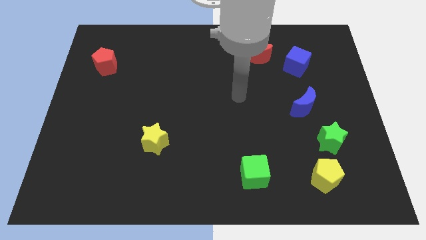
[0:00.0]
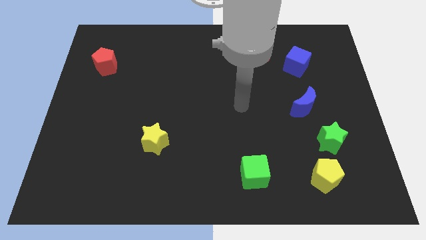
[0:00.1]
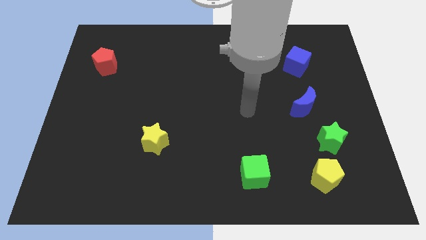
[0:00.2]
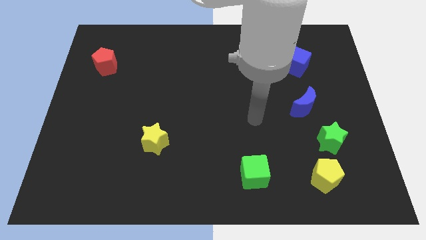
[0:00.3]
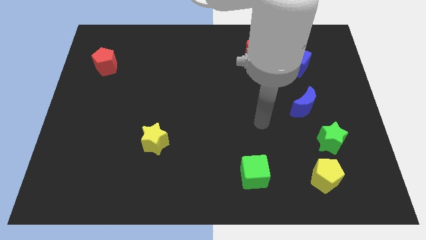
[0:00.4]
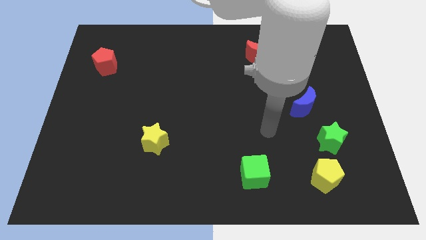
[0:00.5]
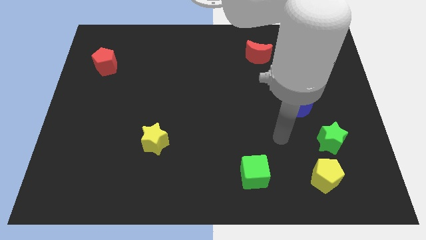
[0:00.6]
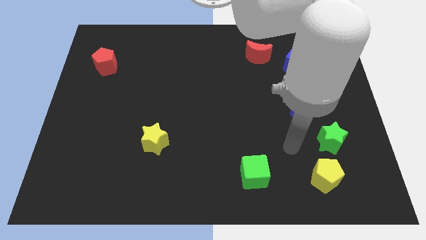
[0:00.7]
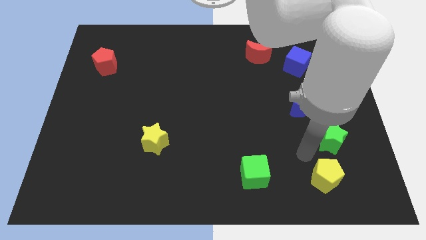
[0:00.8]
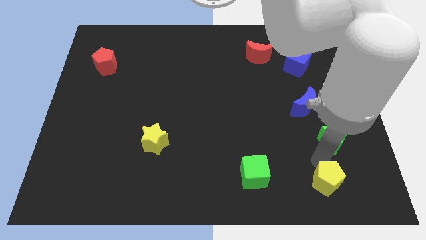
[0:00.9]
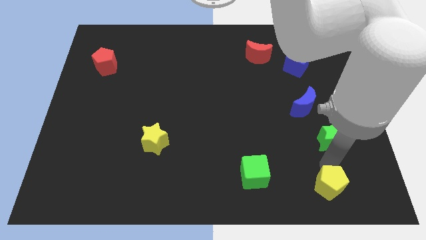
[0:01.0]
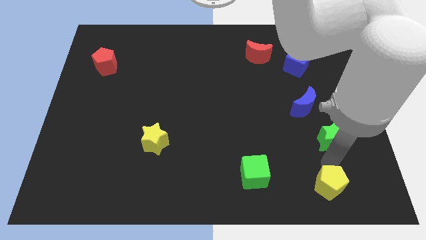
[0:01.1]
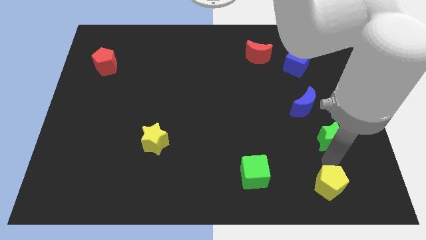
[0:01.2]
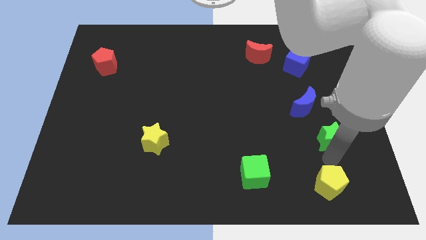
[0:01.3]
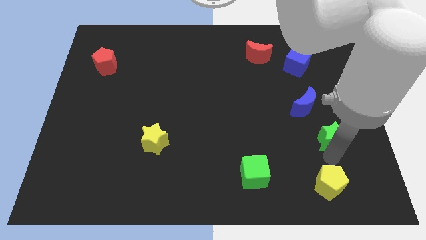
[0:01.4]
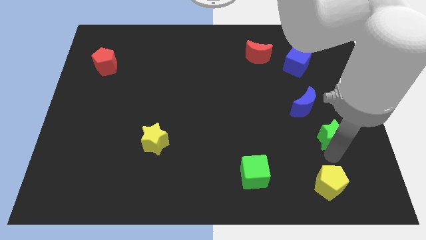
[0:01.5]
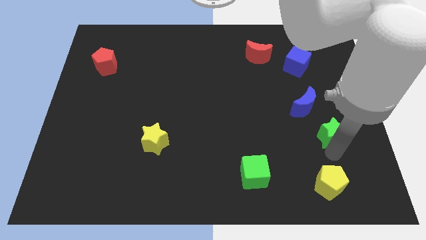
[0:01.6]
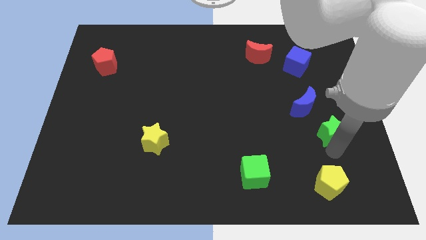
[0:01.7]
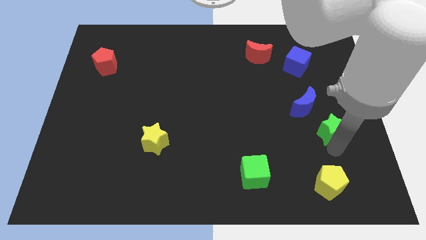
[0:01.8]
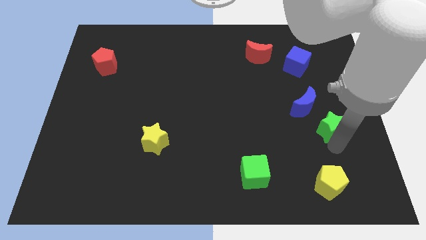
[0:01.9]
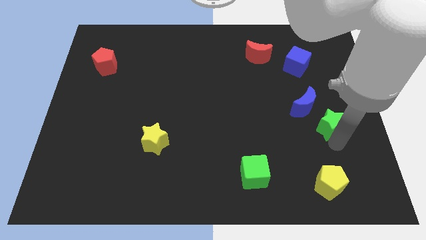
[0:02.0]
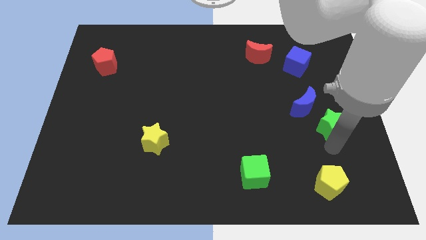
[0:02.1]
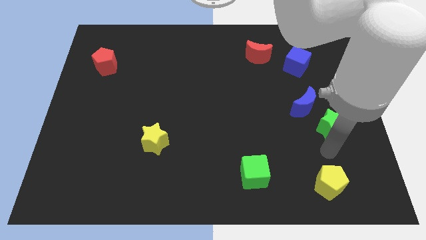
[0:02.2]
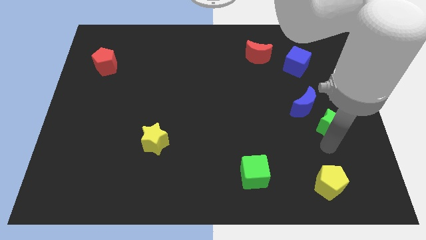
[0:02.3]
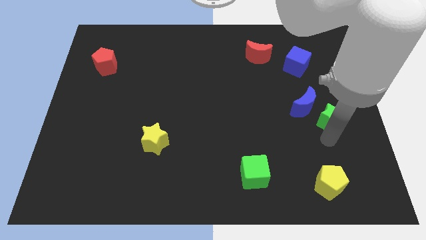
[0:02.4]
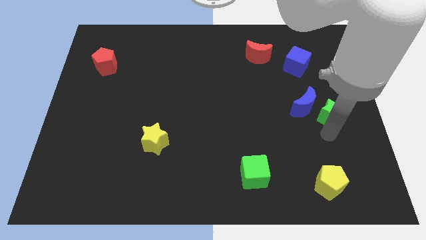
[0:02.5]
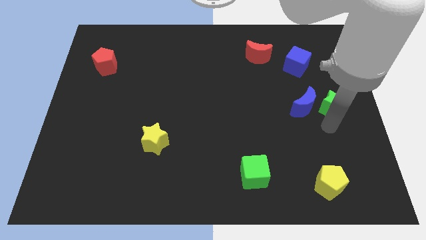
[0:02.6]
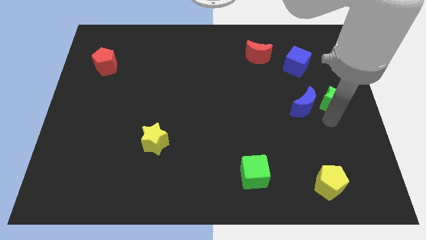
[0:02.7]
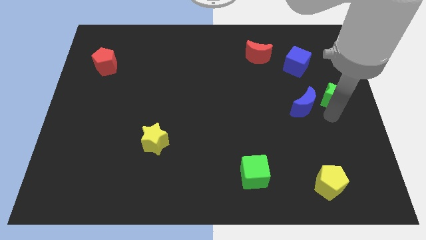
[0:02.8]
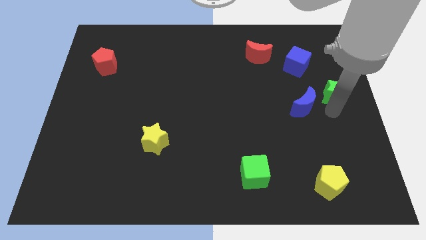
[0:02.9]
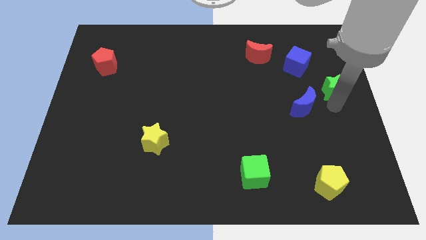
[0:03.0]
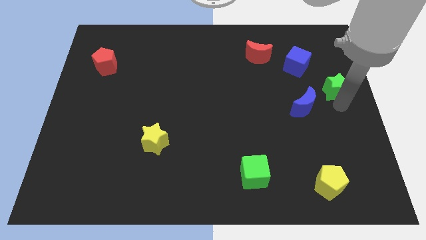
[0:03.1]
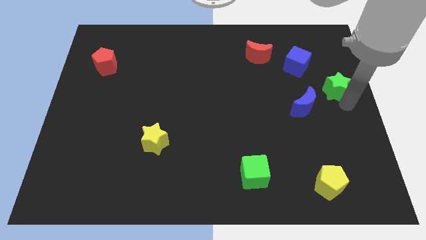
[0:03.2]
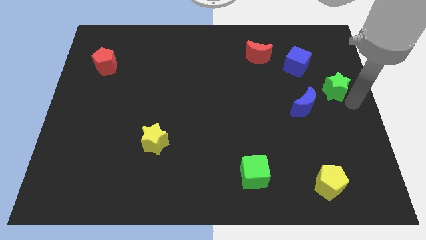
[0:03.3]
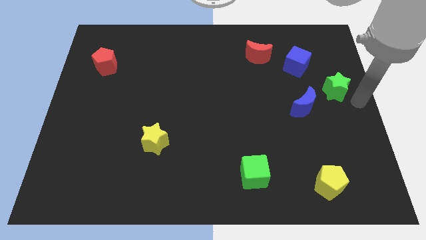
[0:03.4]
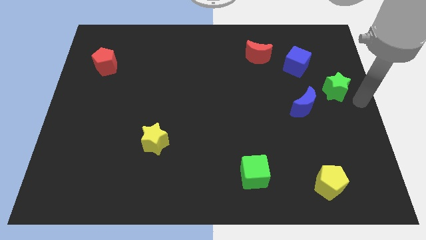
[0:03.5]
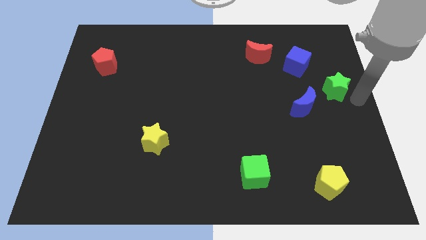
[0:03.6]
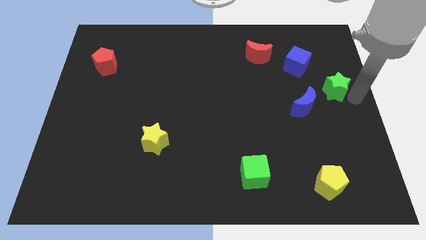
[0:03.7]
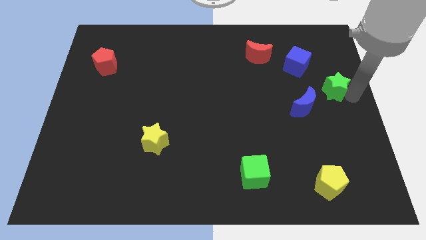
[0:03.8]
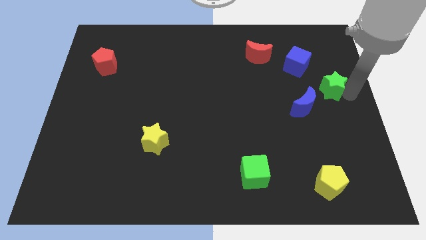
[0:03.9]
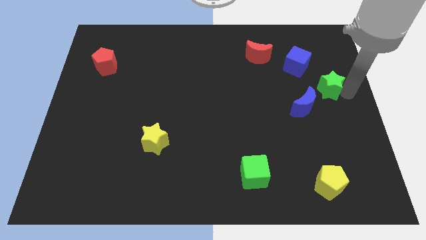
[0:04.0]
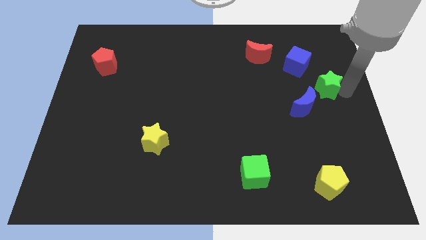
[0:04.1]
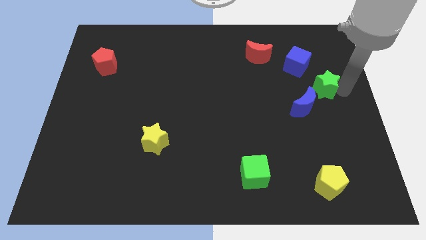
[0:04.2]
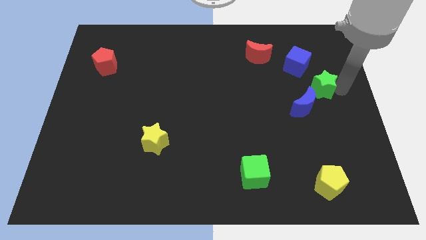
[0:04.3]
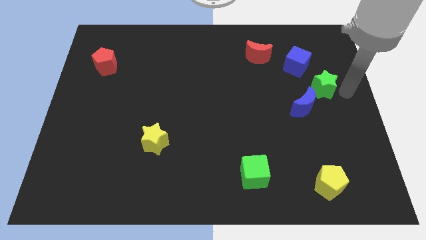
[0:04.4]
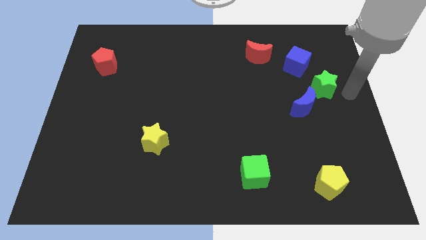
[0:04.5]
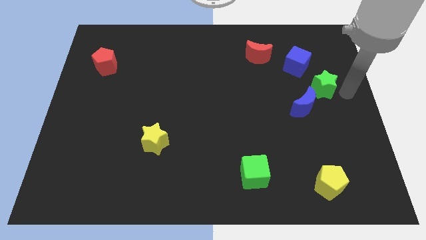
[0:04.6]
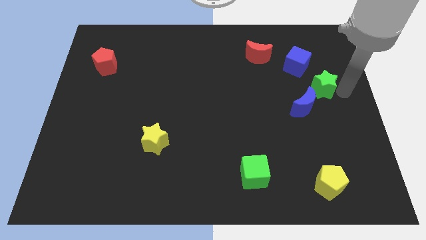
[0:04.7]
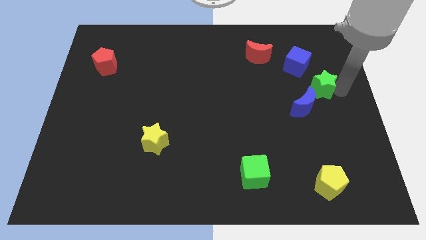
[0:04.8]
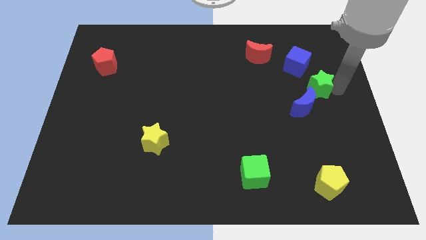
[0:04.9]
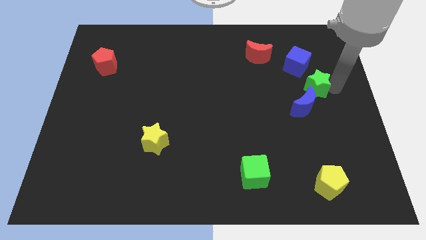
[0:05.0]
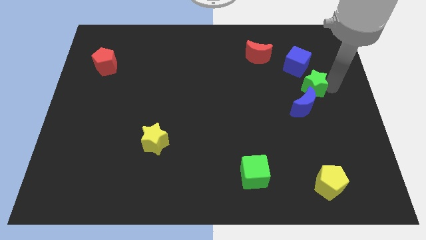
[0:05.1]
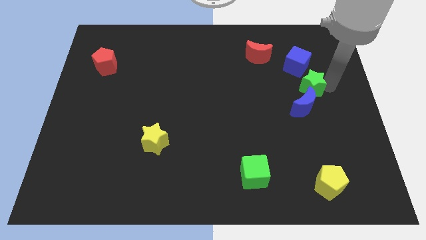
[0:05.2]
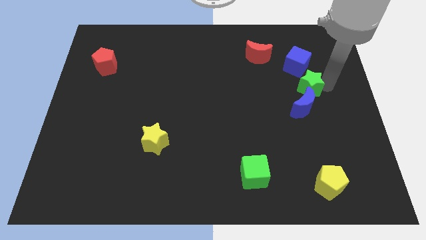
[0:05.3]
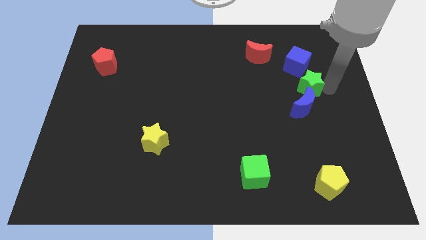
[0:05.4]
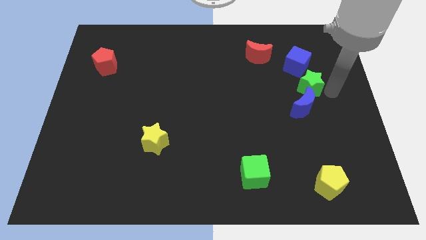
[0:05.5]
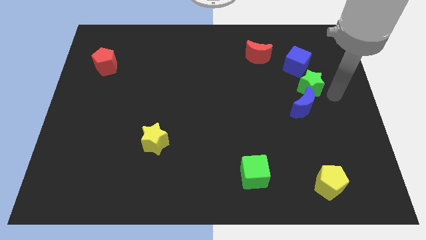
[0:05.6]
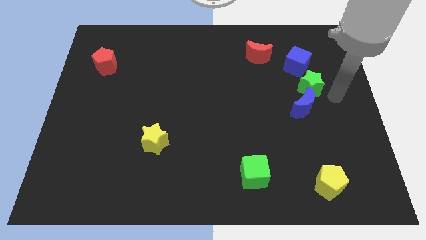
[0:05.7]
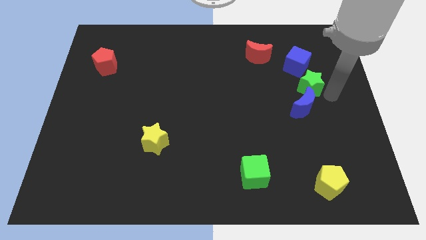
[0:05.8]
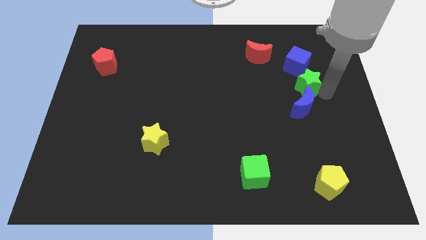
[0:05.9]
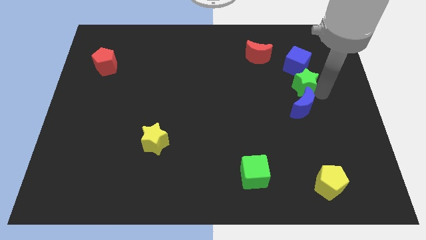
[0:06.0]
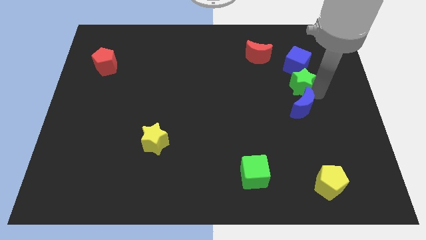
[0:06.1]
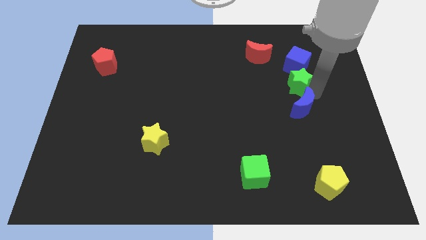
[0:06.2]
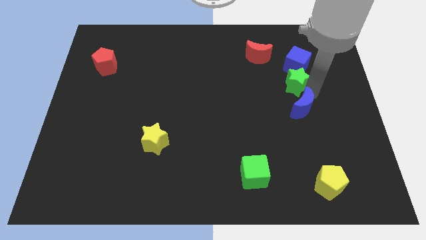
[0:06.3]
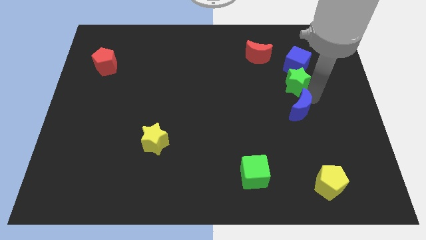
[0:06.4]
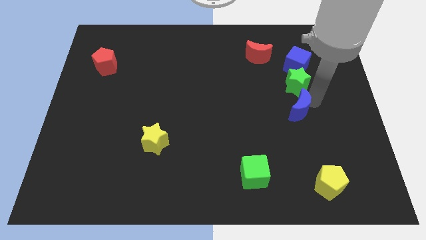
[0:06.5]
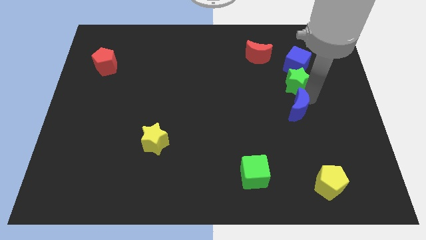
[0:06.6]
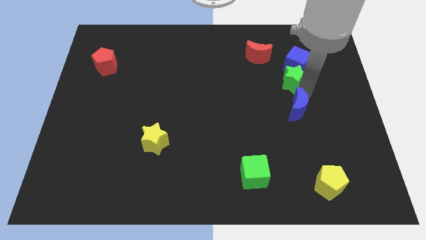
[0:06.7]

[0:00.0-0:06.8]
put the green star to the bottom right side of the red moon

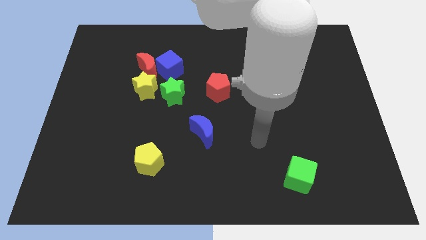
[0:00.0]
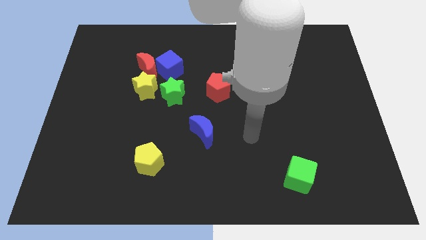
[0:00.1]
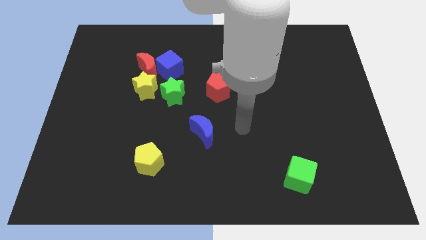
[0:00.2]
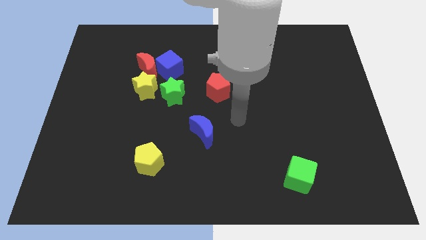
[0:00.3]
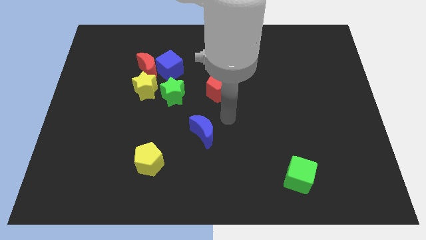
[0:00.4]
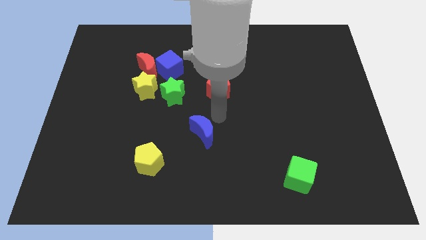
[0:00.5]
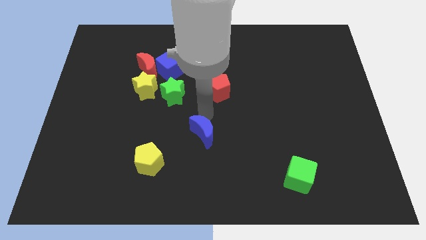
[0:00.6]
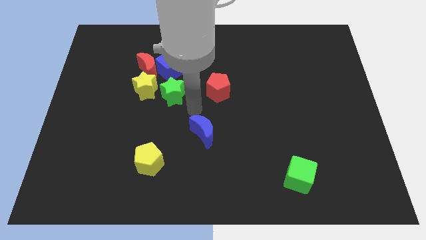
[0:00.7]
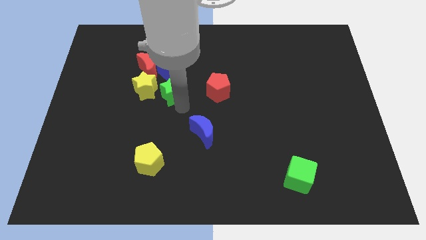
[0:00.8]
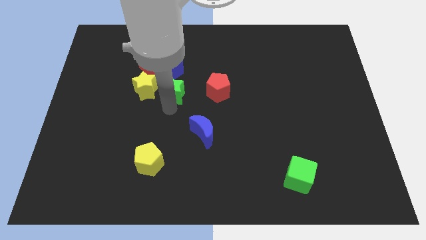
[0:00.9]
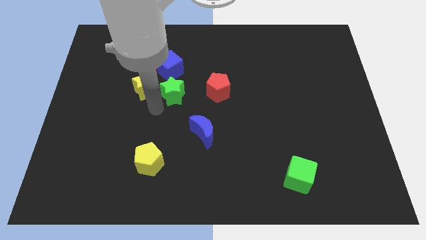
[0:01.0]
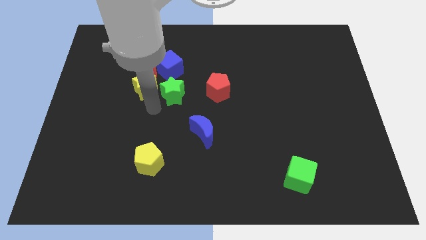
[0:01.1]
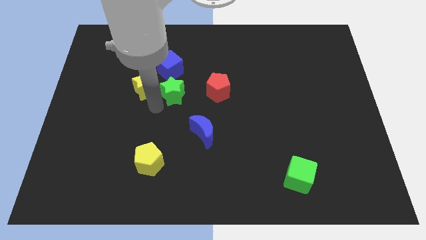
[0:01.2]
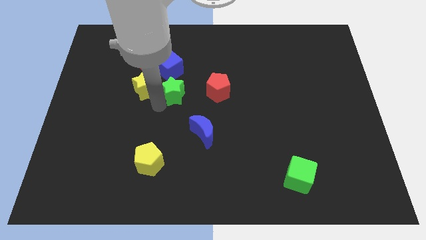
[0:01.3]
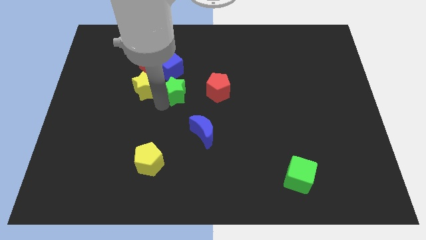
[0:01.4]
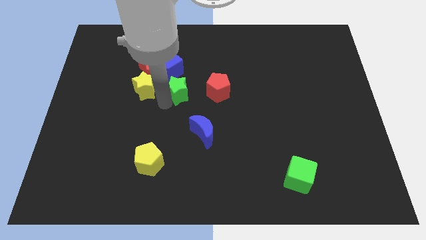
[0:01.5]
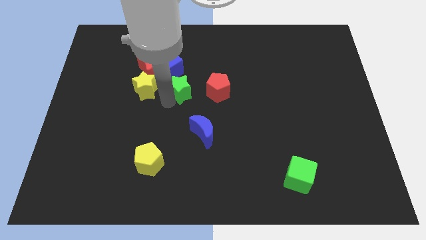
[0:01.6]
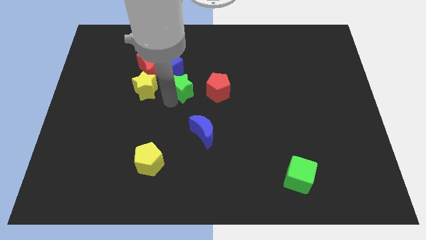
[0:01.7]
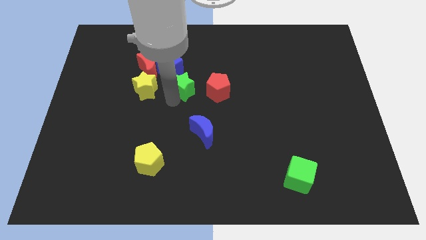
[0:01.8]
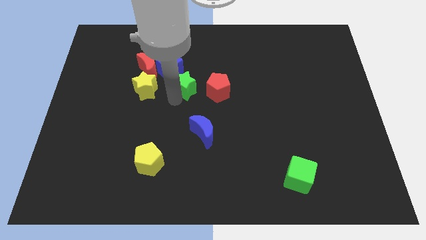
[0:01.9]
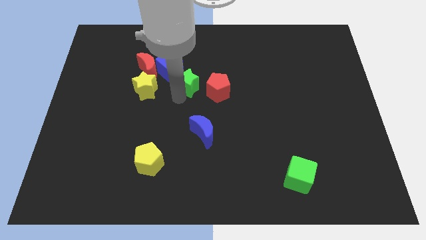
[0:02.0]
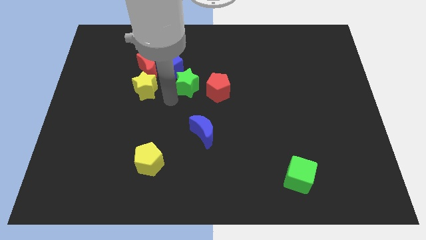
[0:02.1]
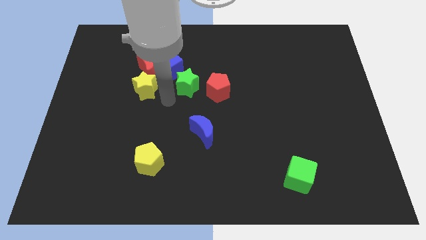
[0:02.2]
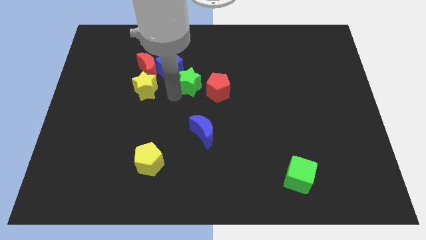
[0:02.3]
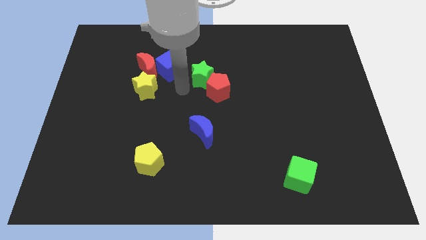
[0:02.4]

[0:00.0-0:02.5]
slide the green star to the top of the red pentagon
